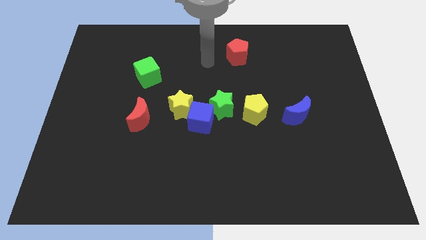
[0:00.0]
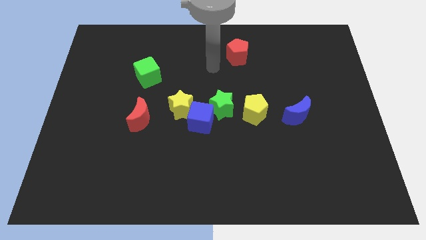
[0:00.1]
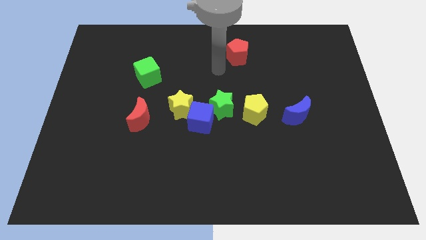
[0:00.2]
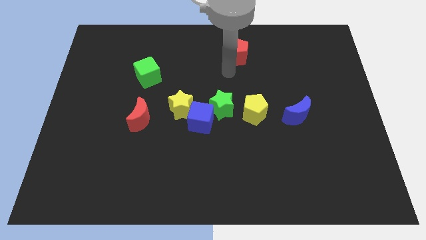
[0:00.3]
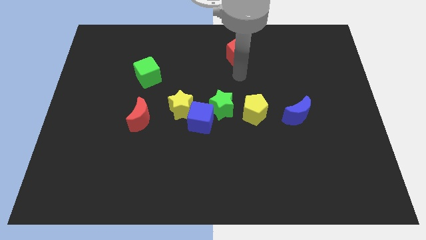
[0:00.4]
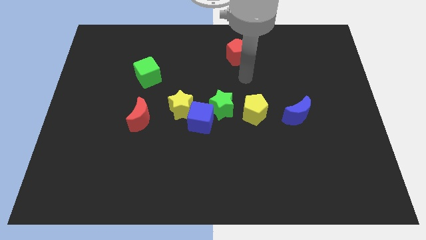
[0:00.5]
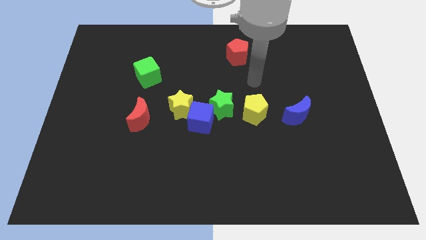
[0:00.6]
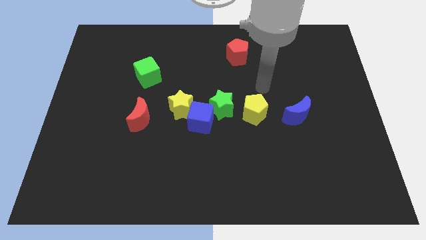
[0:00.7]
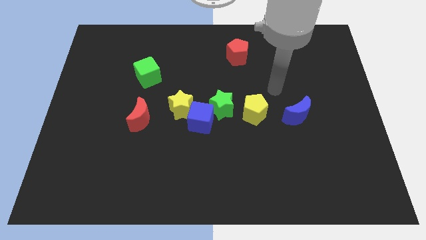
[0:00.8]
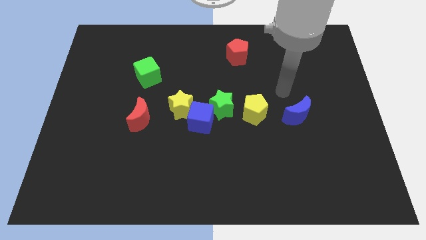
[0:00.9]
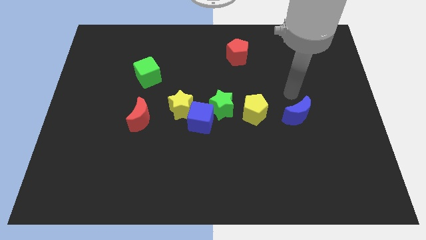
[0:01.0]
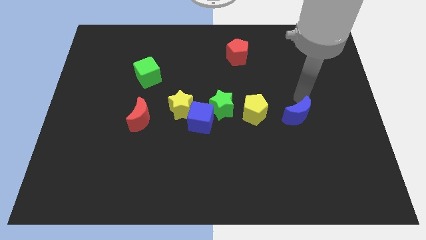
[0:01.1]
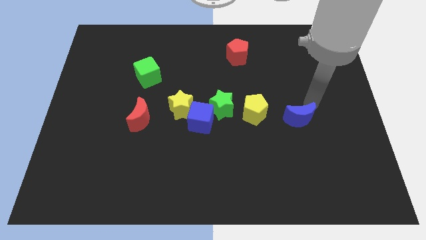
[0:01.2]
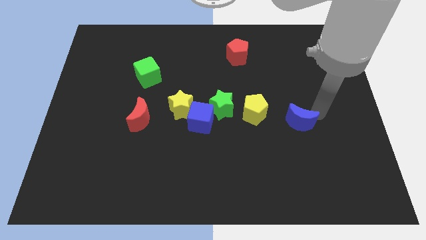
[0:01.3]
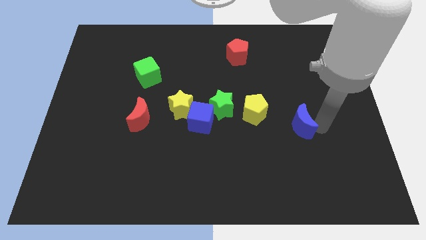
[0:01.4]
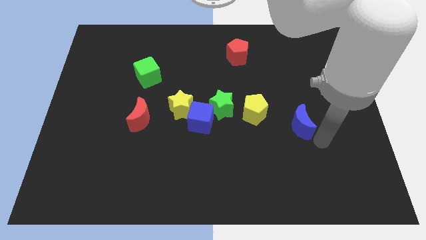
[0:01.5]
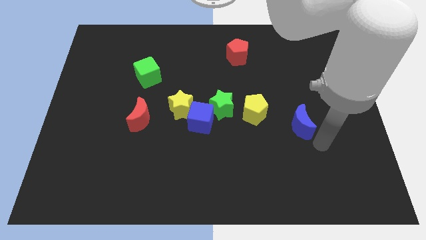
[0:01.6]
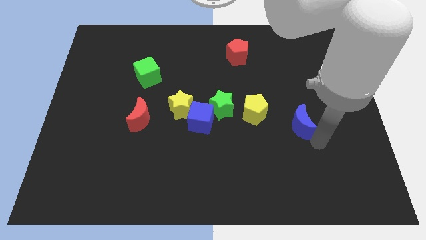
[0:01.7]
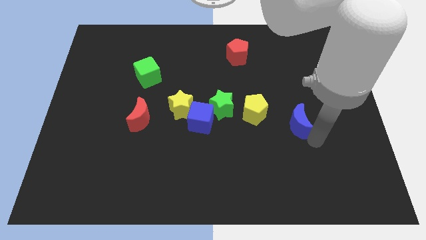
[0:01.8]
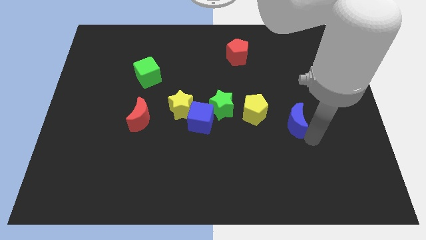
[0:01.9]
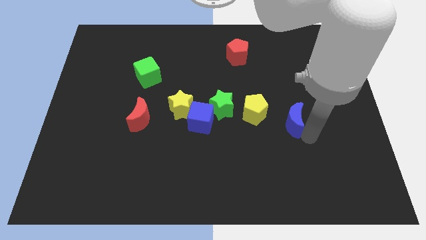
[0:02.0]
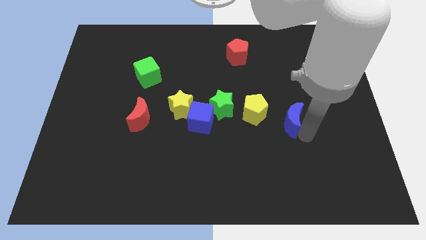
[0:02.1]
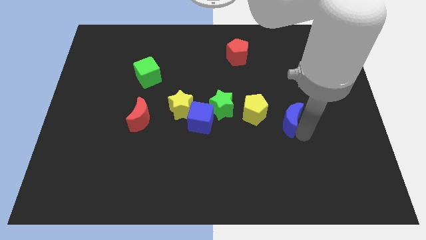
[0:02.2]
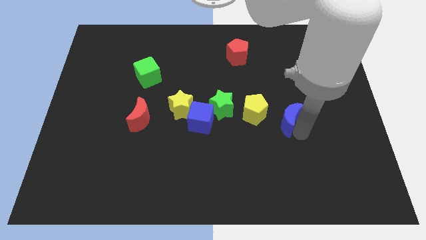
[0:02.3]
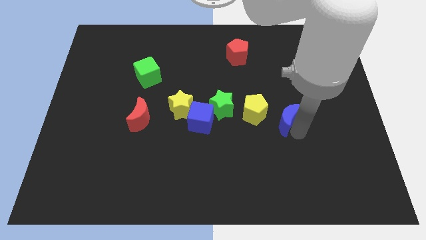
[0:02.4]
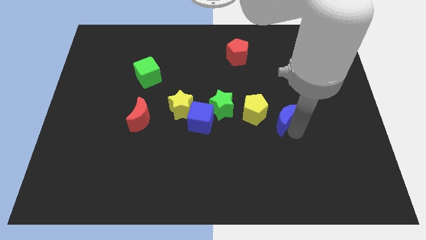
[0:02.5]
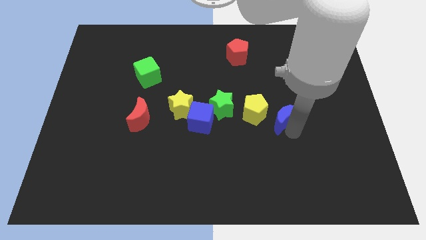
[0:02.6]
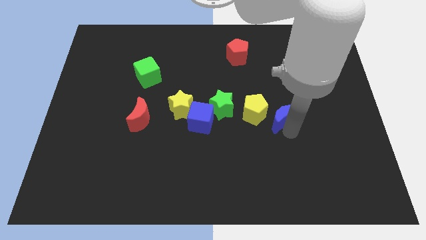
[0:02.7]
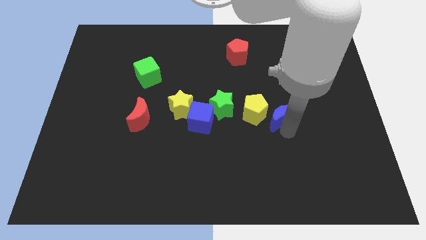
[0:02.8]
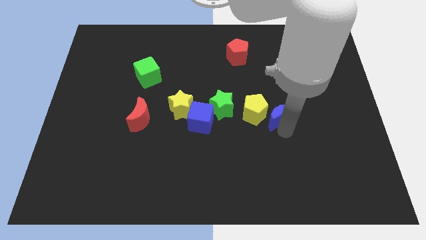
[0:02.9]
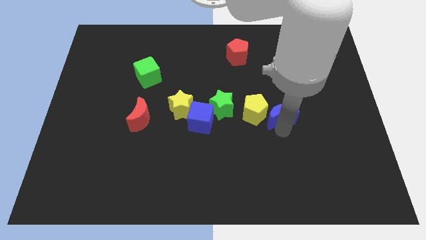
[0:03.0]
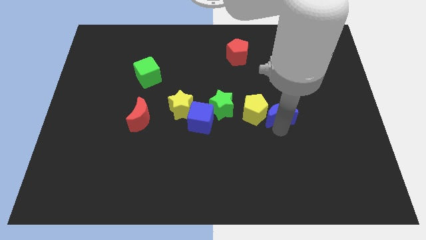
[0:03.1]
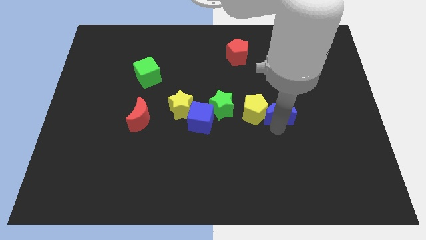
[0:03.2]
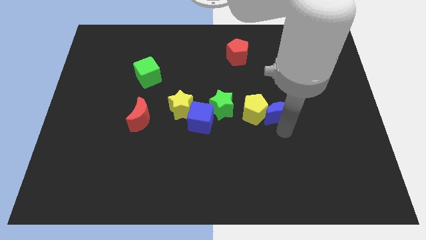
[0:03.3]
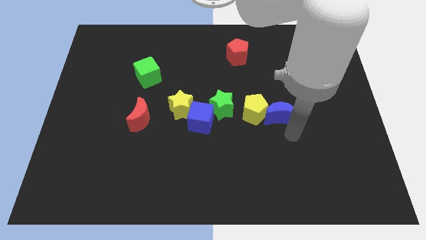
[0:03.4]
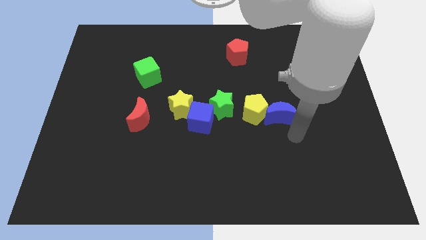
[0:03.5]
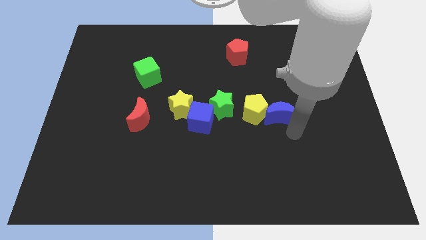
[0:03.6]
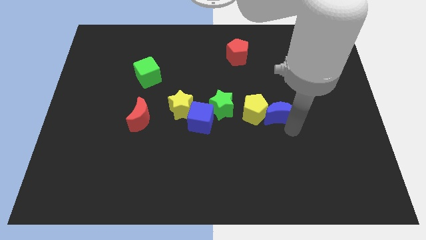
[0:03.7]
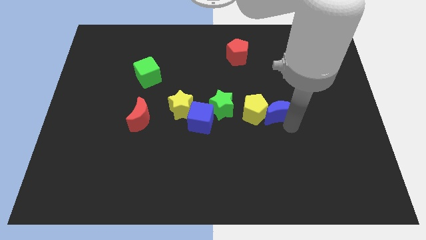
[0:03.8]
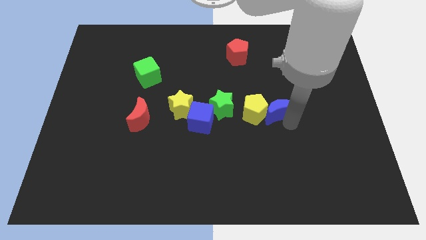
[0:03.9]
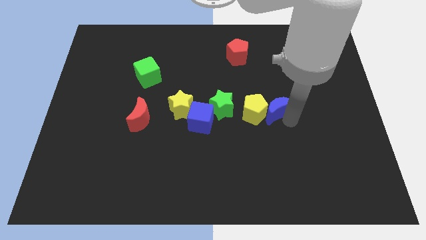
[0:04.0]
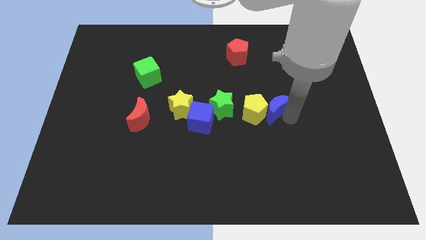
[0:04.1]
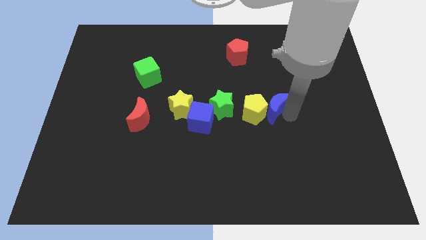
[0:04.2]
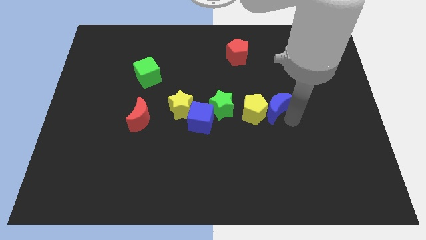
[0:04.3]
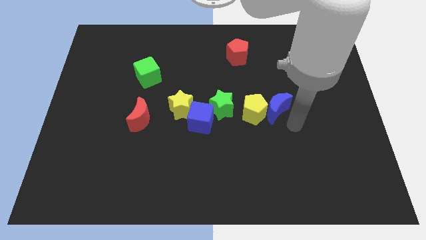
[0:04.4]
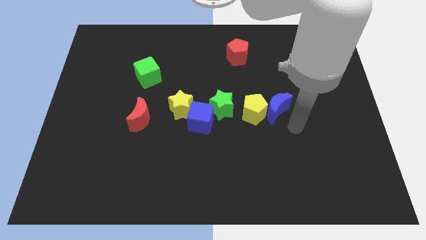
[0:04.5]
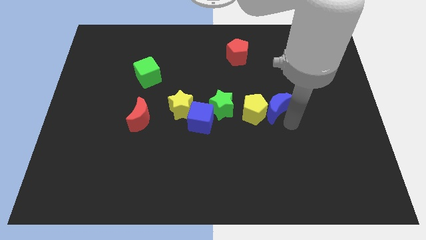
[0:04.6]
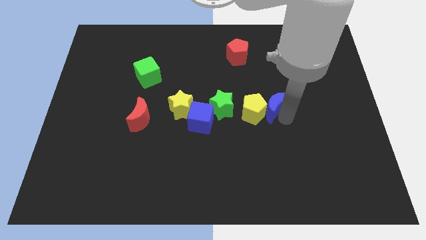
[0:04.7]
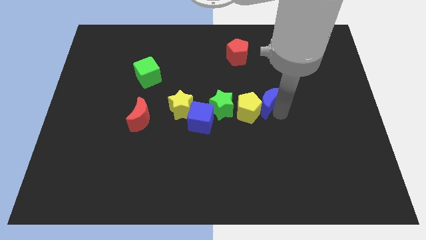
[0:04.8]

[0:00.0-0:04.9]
push the blue moon upwards and then to the left a bit

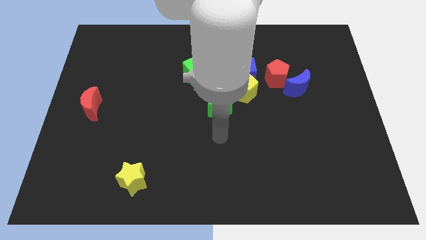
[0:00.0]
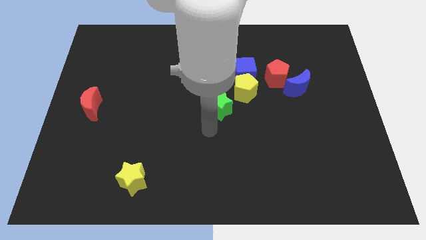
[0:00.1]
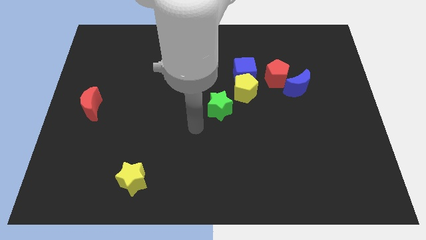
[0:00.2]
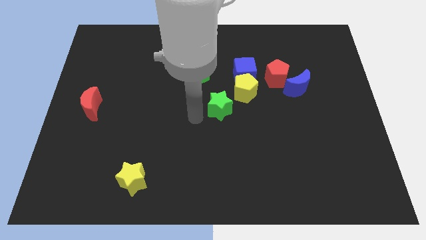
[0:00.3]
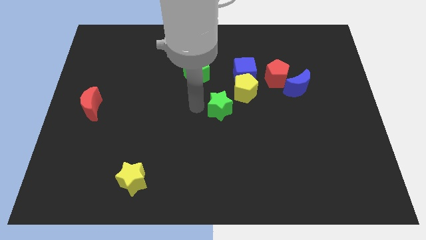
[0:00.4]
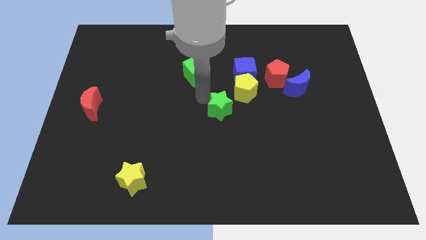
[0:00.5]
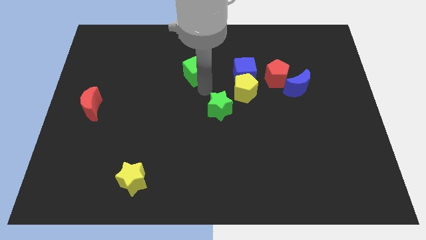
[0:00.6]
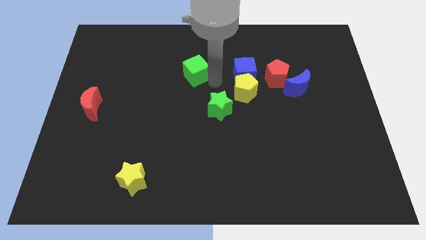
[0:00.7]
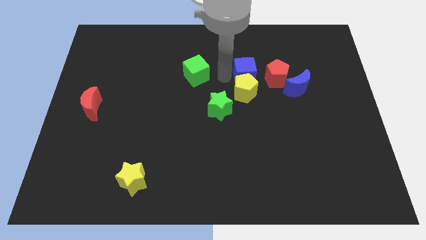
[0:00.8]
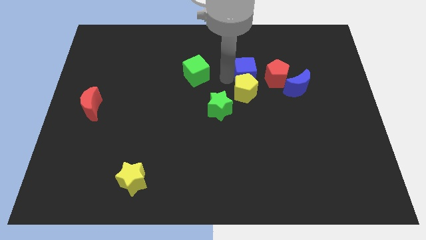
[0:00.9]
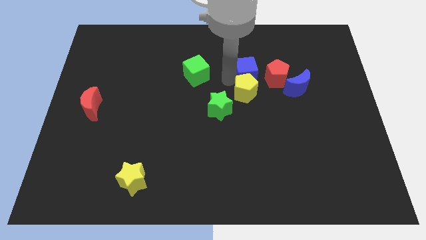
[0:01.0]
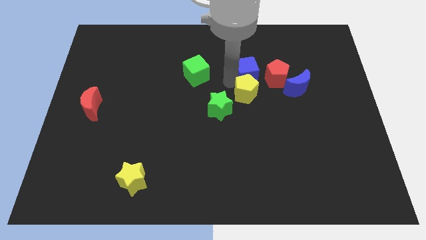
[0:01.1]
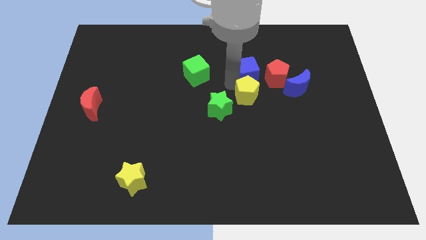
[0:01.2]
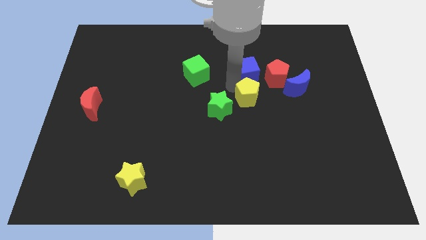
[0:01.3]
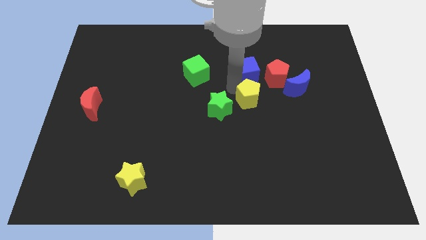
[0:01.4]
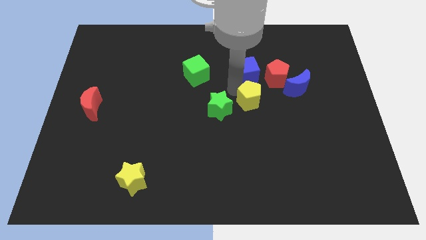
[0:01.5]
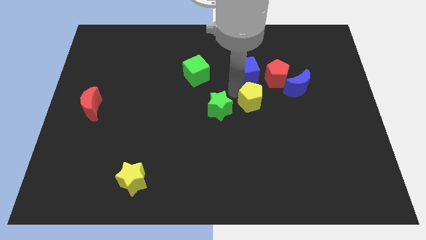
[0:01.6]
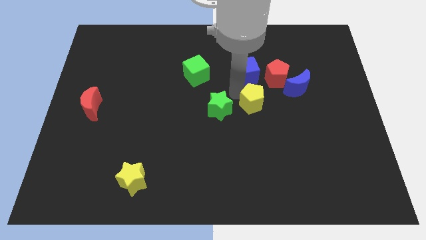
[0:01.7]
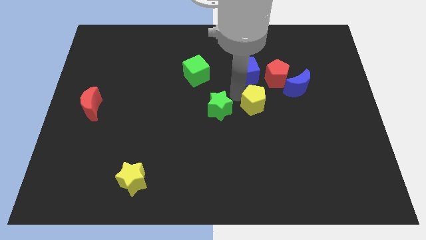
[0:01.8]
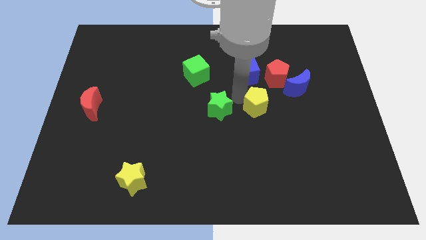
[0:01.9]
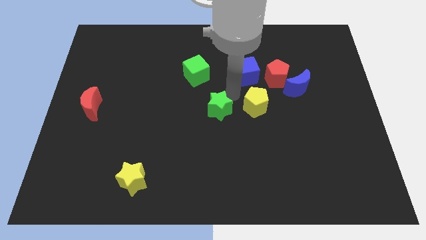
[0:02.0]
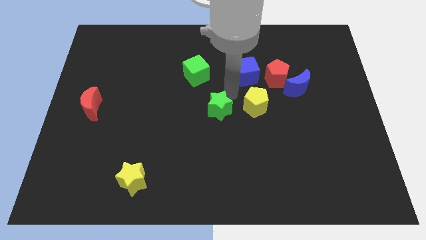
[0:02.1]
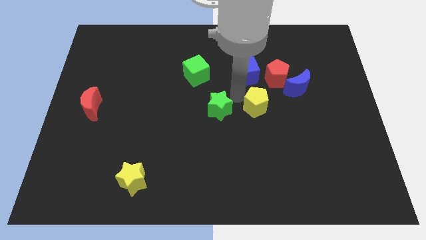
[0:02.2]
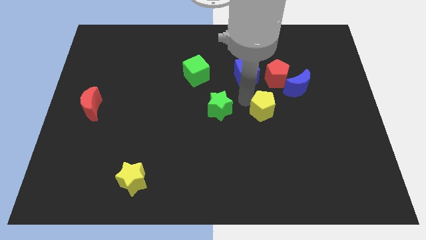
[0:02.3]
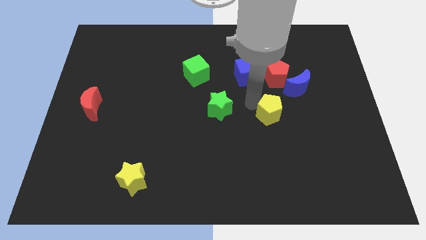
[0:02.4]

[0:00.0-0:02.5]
push the yellow pentagon downwards and to the right a little

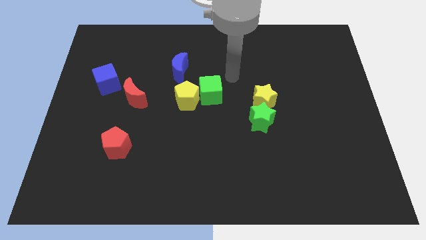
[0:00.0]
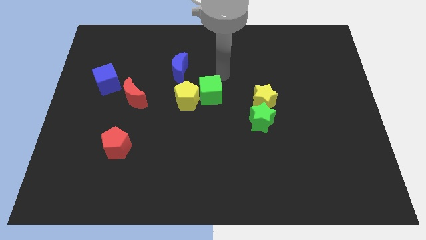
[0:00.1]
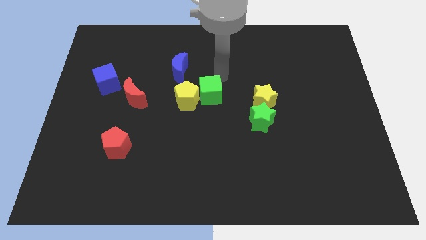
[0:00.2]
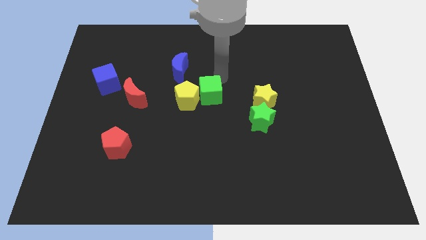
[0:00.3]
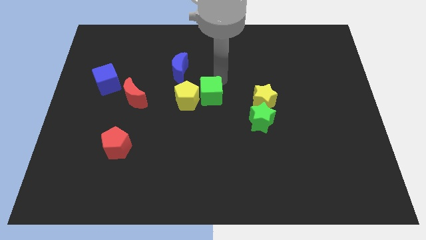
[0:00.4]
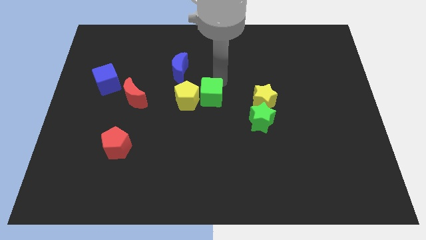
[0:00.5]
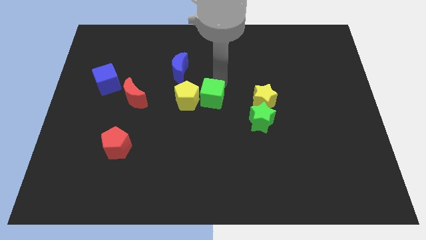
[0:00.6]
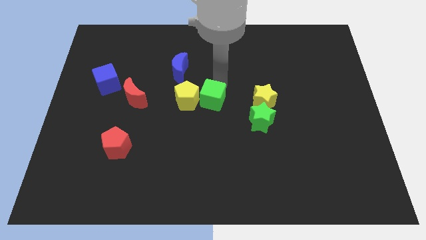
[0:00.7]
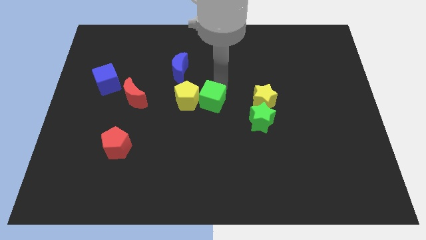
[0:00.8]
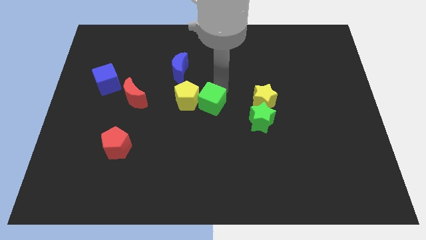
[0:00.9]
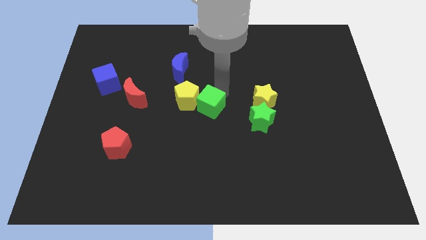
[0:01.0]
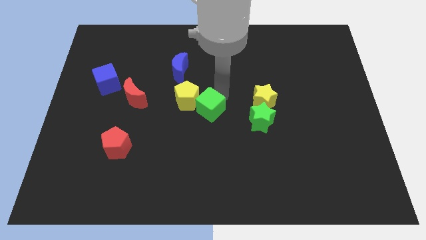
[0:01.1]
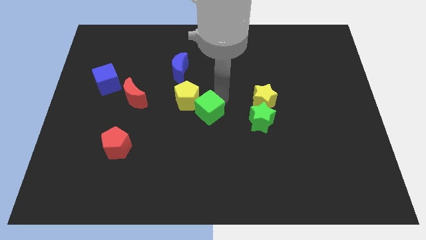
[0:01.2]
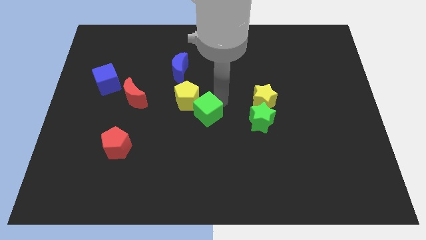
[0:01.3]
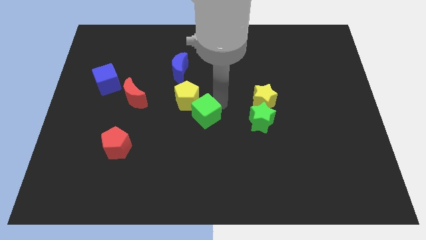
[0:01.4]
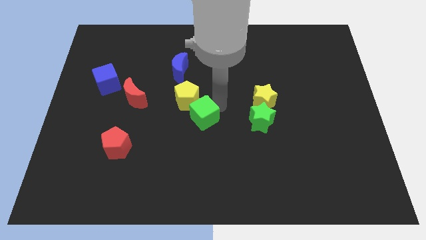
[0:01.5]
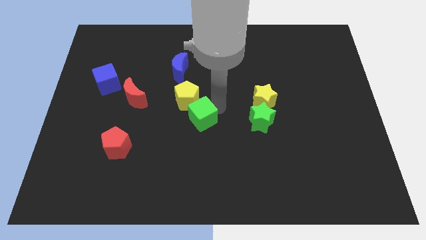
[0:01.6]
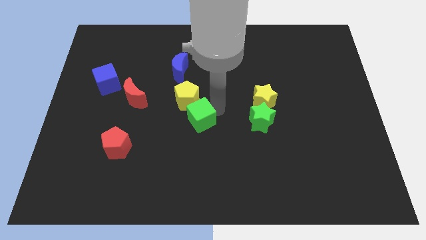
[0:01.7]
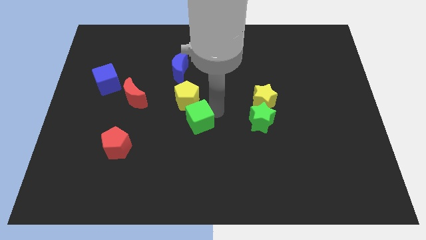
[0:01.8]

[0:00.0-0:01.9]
move the green cube down and then left slightly
